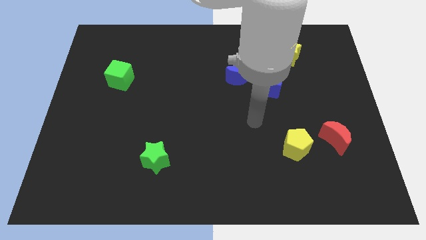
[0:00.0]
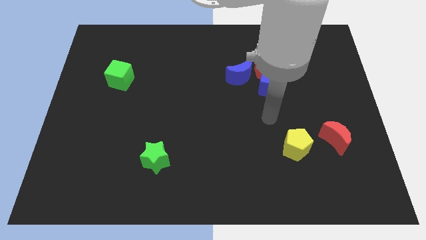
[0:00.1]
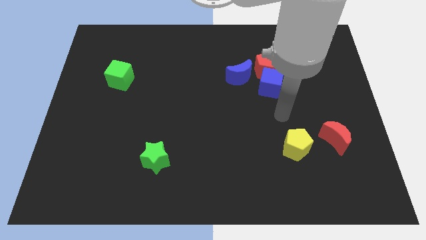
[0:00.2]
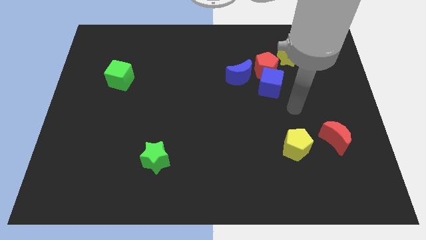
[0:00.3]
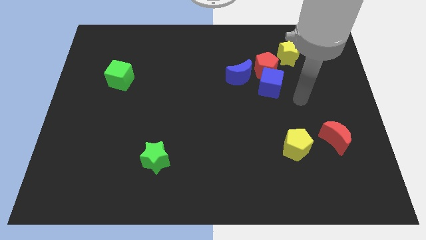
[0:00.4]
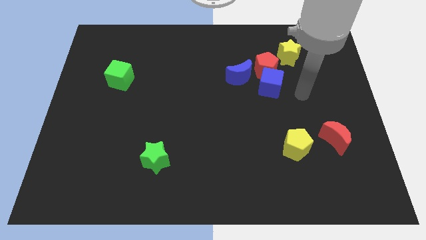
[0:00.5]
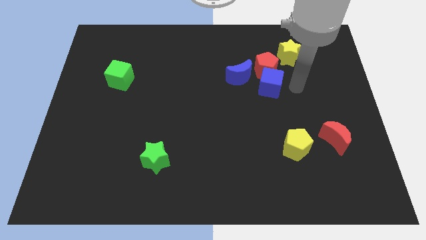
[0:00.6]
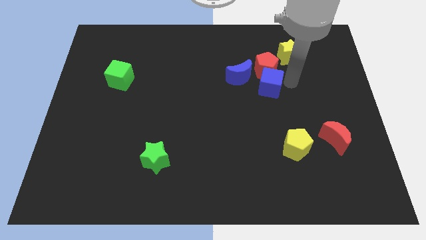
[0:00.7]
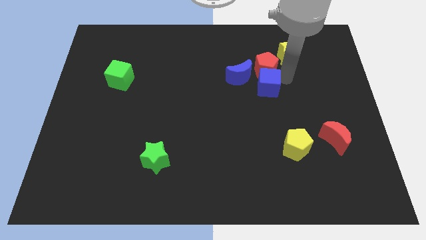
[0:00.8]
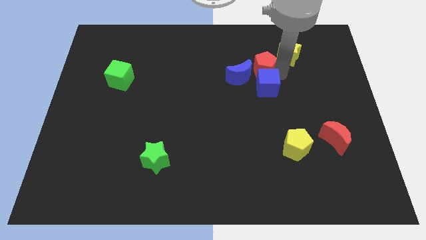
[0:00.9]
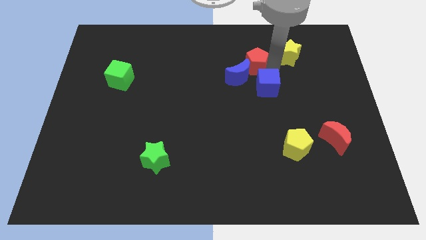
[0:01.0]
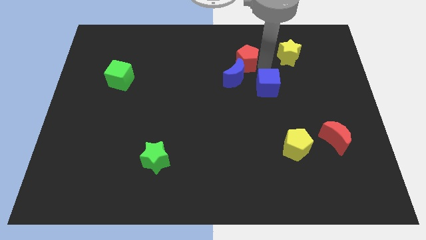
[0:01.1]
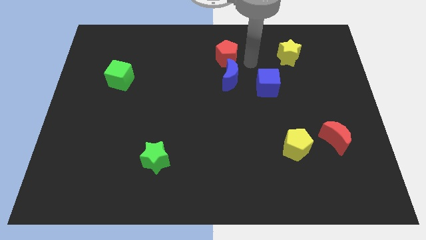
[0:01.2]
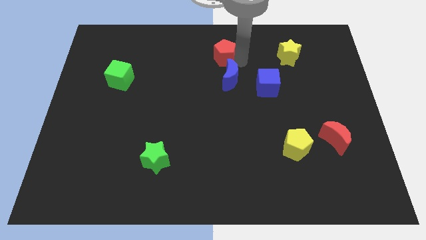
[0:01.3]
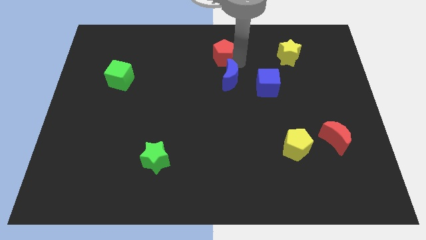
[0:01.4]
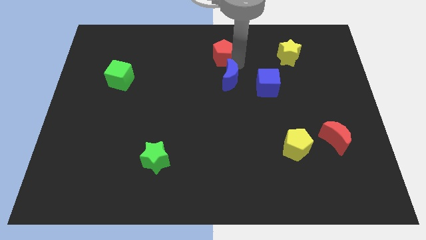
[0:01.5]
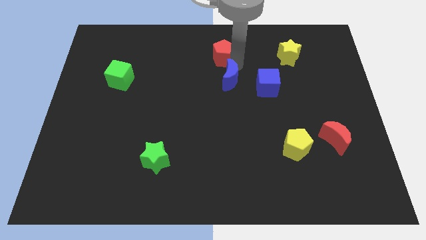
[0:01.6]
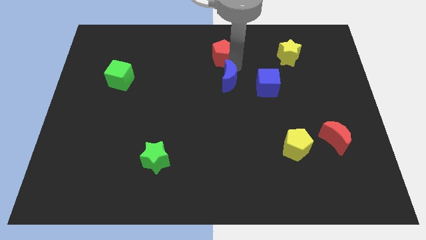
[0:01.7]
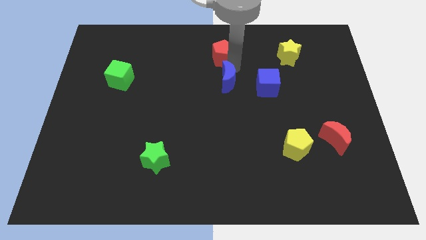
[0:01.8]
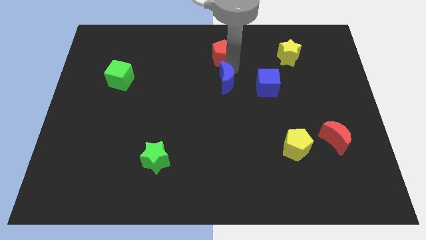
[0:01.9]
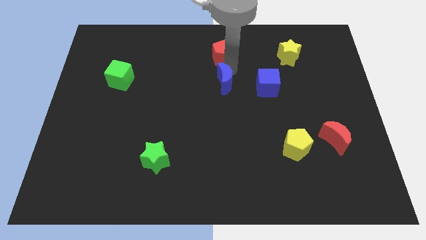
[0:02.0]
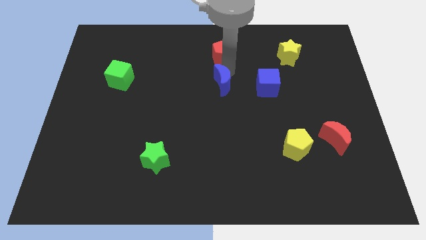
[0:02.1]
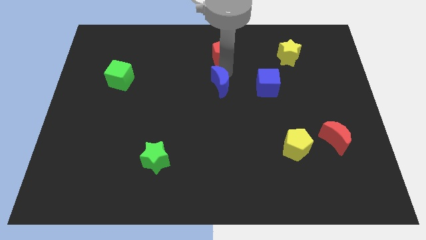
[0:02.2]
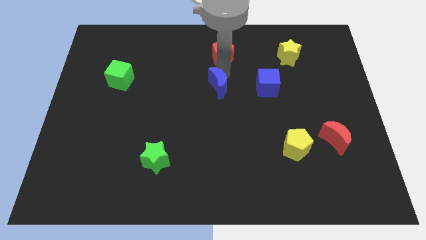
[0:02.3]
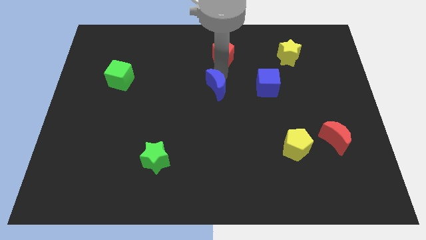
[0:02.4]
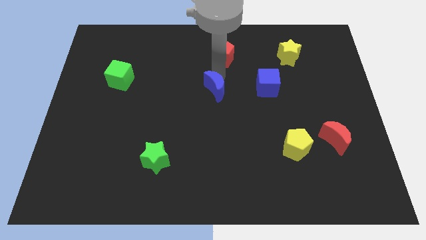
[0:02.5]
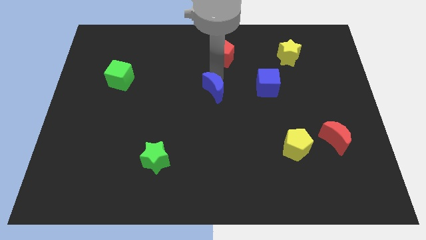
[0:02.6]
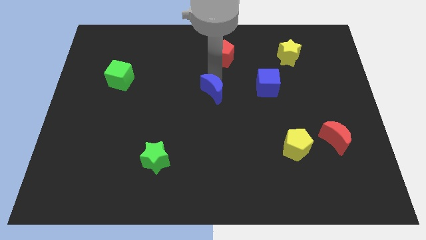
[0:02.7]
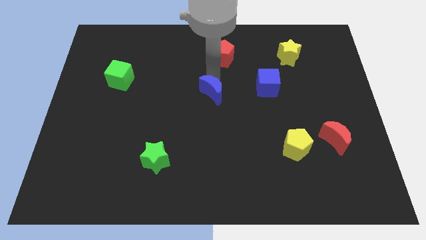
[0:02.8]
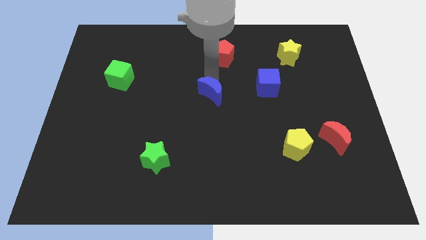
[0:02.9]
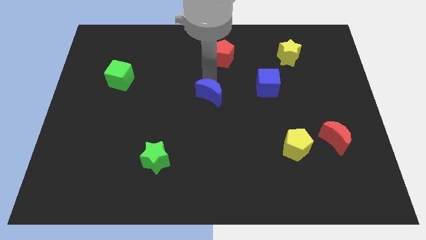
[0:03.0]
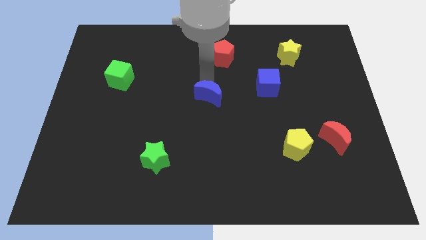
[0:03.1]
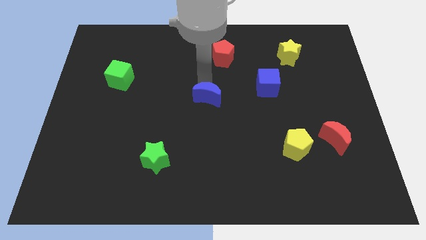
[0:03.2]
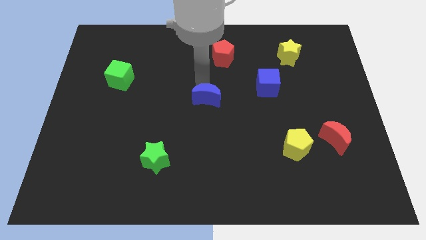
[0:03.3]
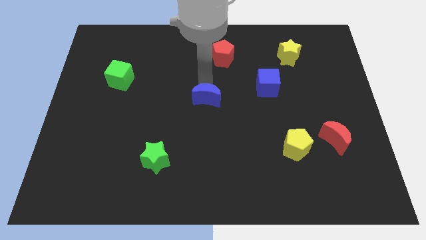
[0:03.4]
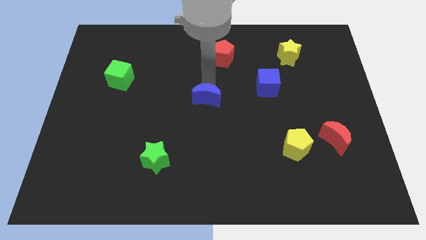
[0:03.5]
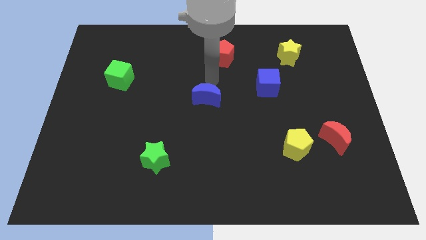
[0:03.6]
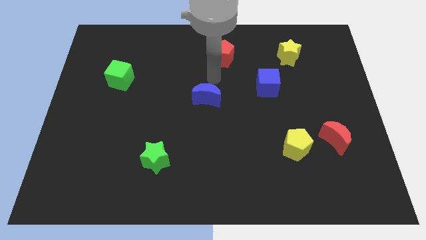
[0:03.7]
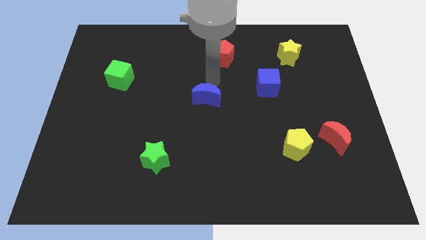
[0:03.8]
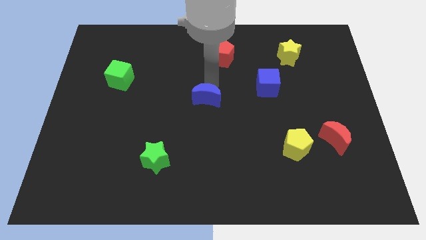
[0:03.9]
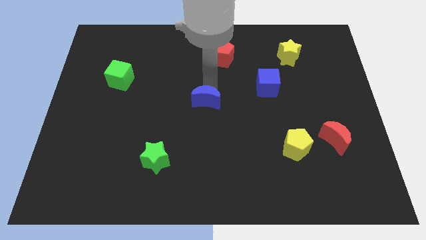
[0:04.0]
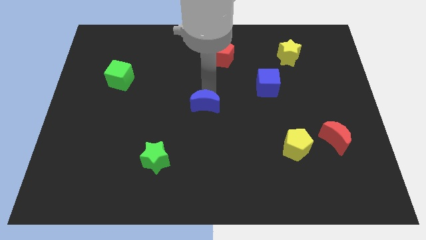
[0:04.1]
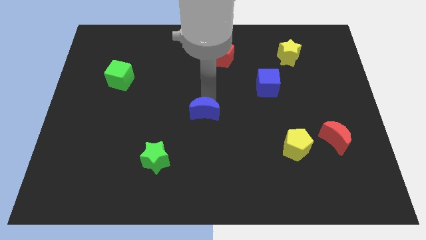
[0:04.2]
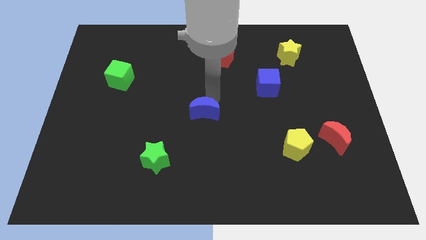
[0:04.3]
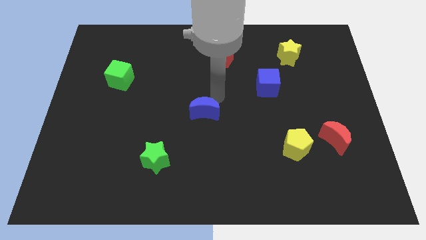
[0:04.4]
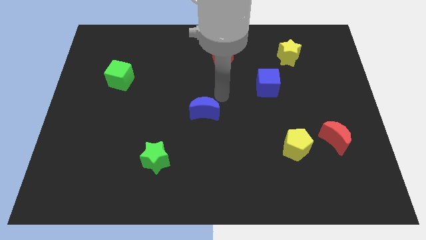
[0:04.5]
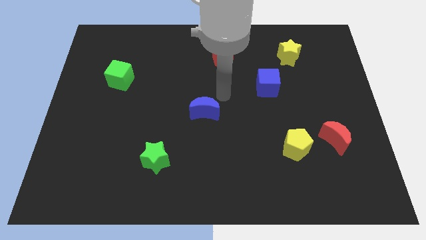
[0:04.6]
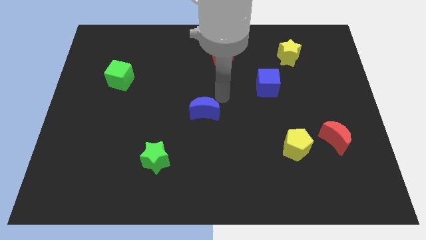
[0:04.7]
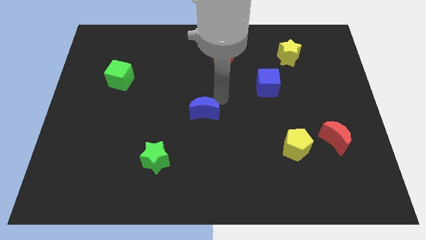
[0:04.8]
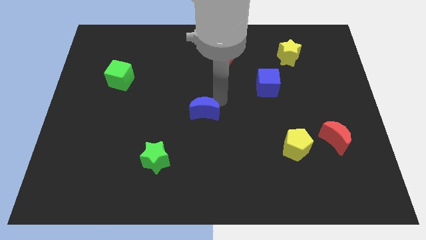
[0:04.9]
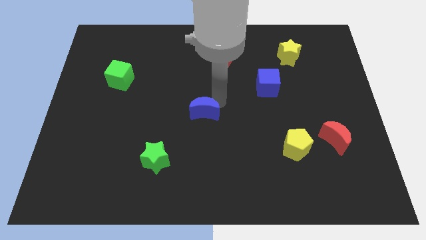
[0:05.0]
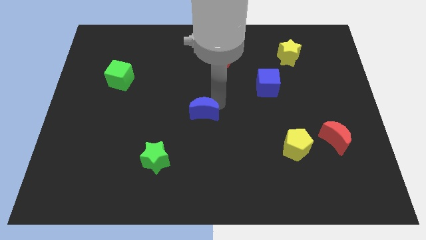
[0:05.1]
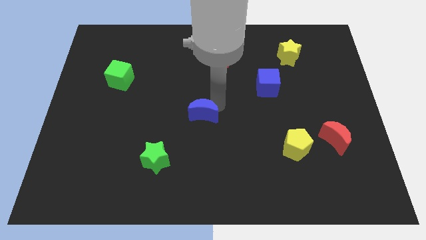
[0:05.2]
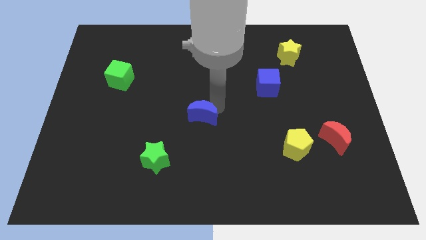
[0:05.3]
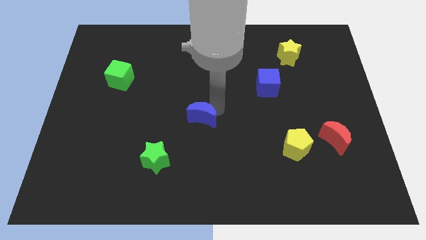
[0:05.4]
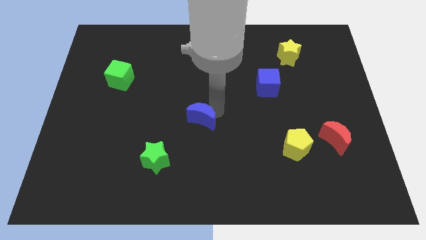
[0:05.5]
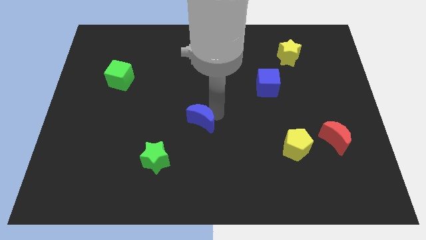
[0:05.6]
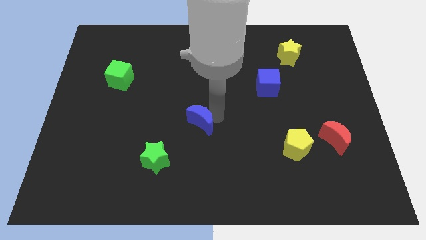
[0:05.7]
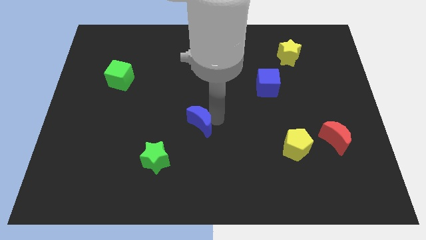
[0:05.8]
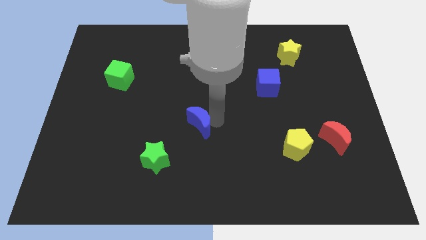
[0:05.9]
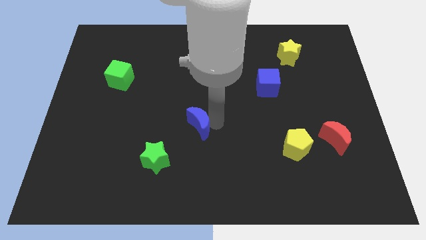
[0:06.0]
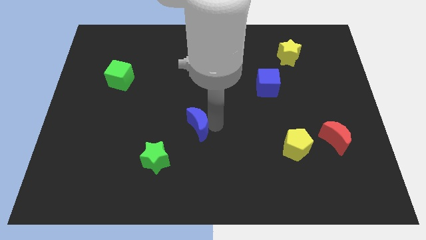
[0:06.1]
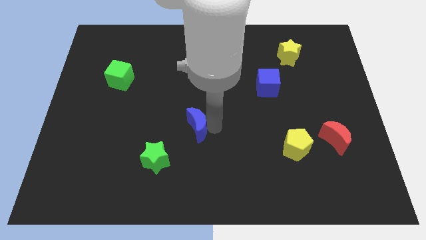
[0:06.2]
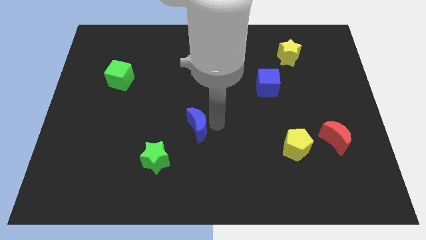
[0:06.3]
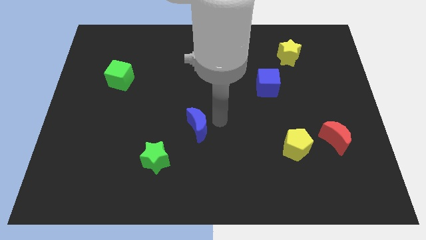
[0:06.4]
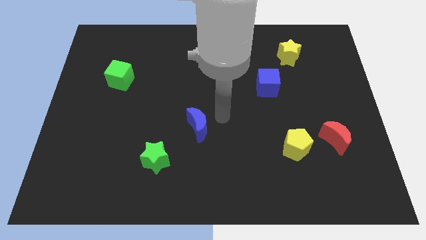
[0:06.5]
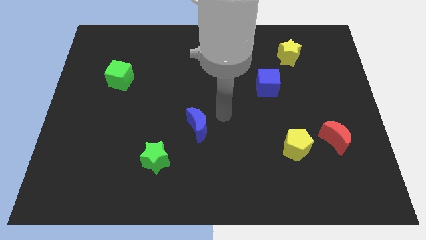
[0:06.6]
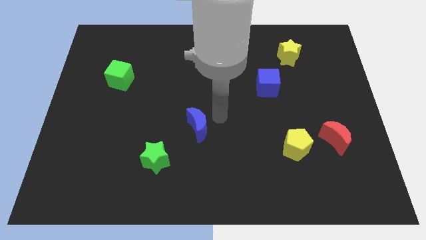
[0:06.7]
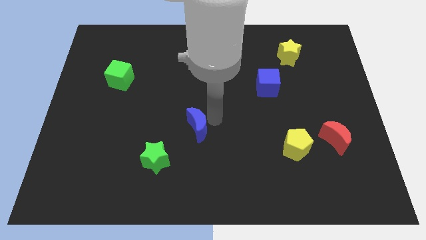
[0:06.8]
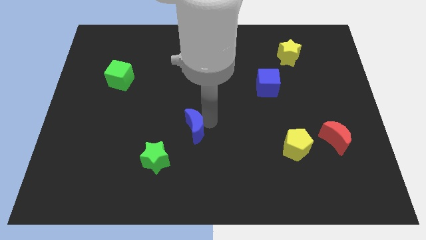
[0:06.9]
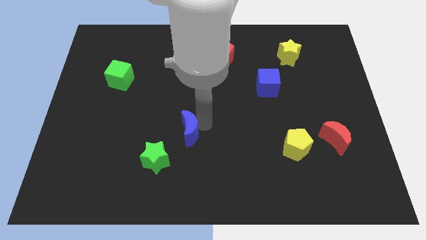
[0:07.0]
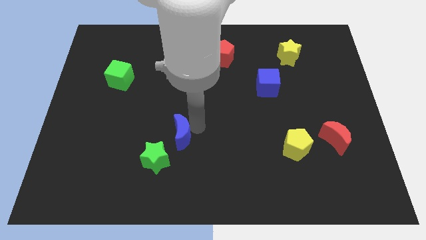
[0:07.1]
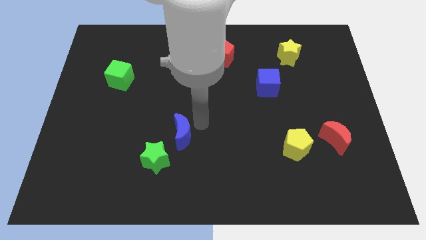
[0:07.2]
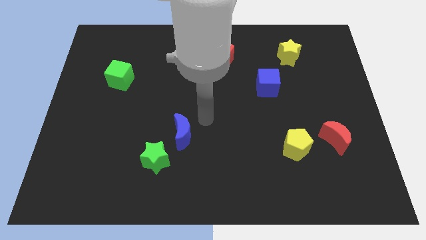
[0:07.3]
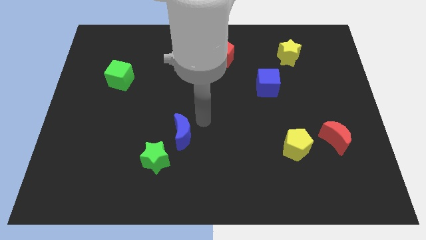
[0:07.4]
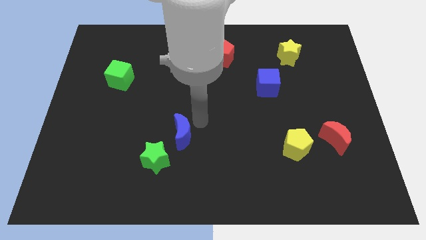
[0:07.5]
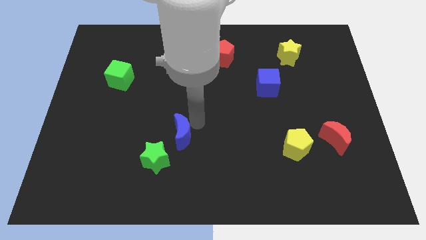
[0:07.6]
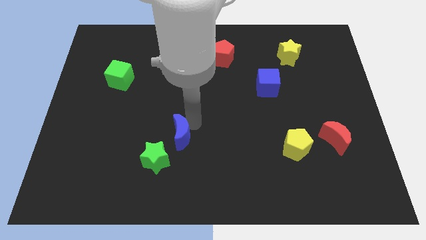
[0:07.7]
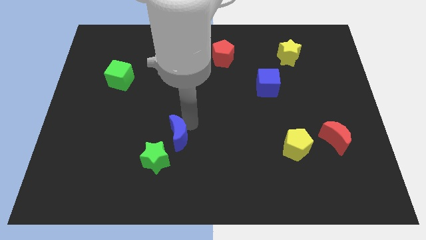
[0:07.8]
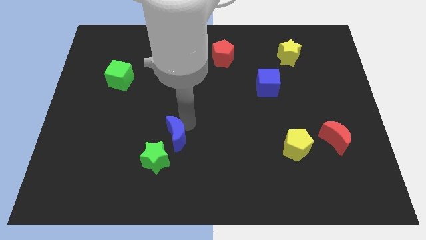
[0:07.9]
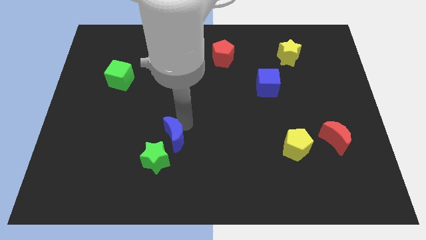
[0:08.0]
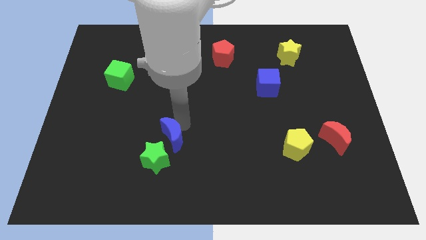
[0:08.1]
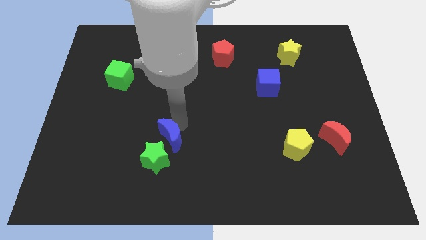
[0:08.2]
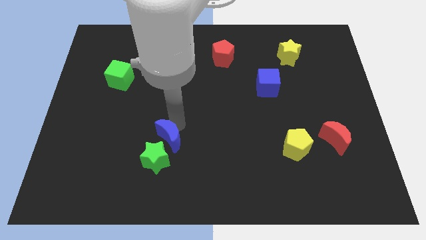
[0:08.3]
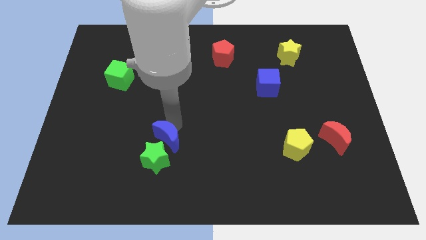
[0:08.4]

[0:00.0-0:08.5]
push the blue moon to the green star
